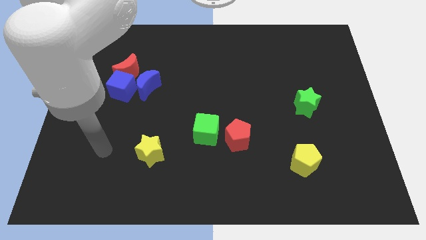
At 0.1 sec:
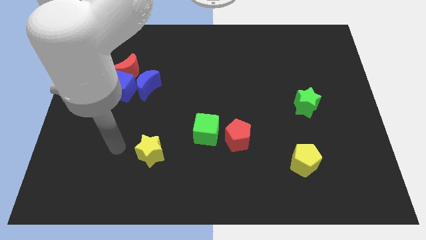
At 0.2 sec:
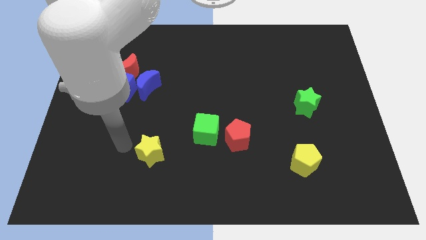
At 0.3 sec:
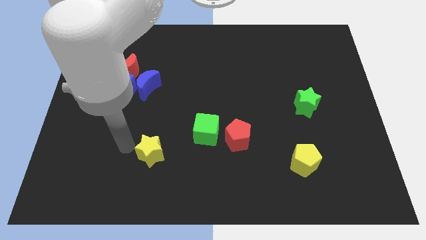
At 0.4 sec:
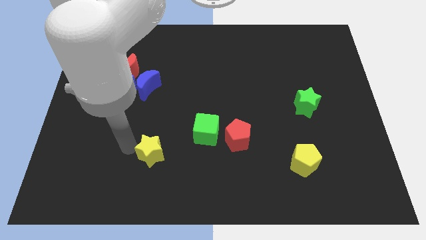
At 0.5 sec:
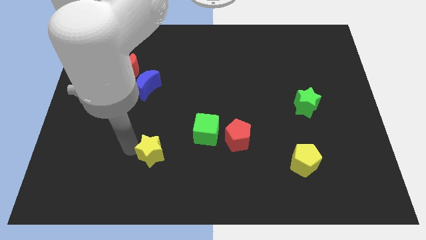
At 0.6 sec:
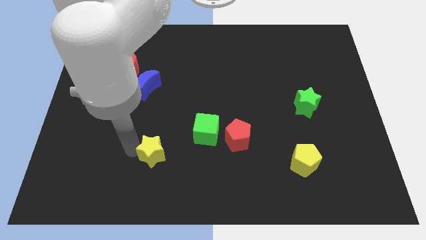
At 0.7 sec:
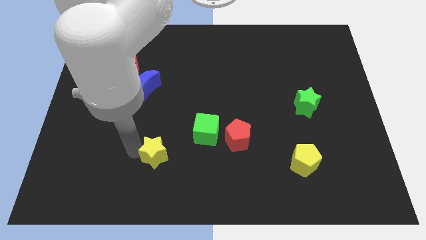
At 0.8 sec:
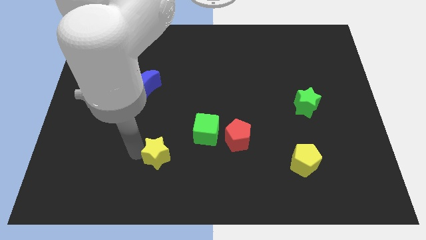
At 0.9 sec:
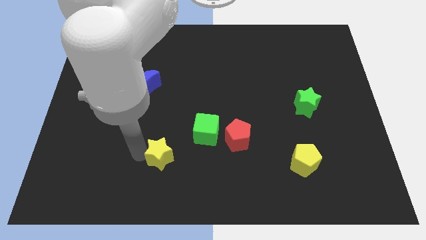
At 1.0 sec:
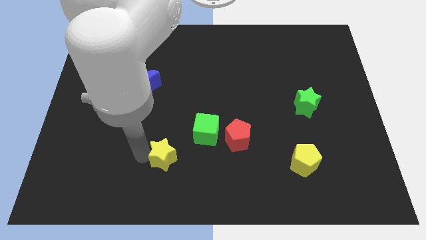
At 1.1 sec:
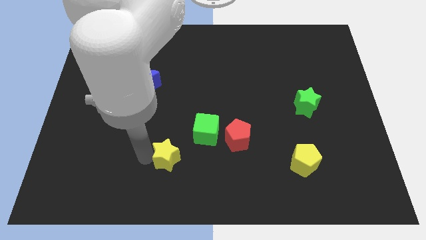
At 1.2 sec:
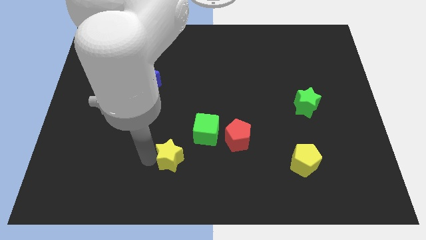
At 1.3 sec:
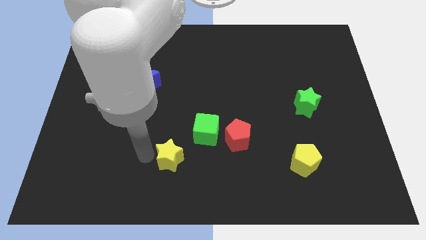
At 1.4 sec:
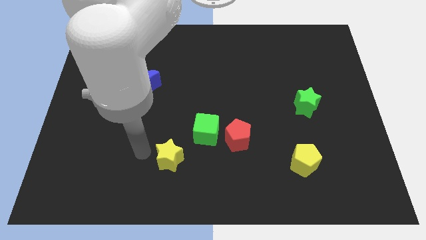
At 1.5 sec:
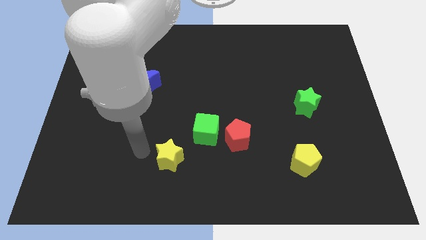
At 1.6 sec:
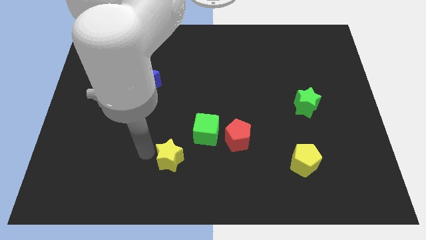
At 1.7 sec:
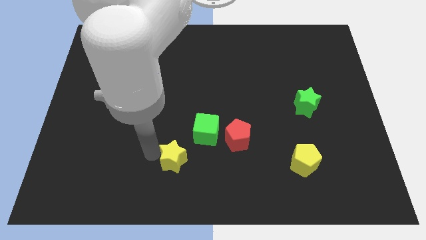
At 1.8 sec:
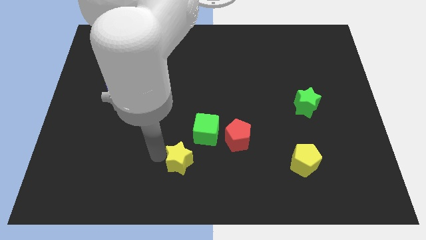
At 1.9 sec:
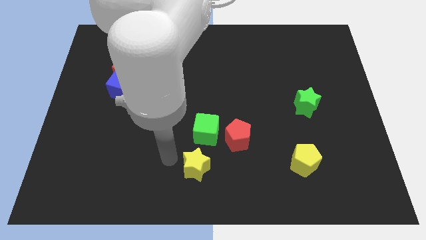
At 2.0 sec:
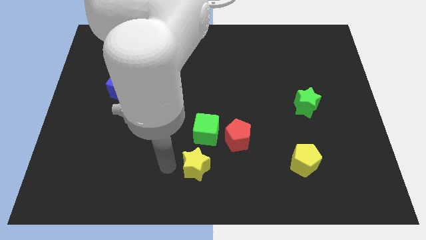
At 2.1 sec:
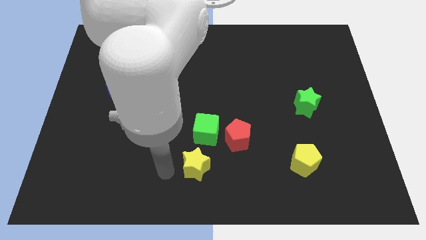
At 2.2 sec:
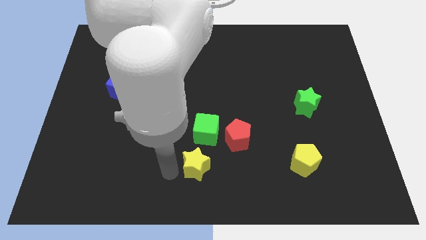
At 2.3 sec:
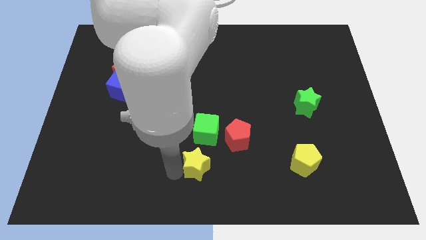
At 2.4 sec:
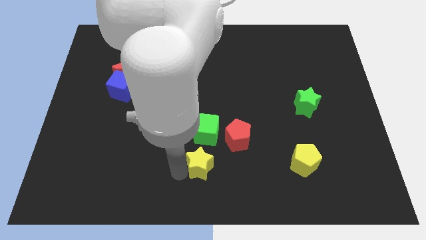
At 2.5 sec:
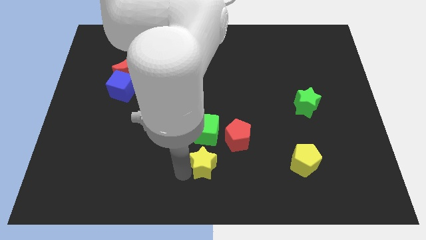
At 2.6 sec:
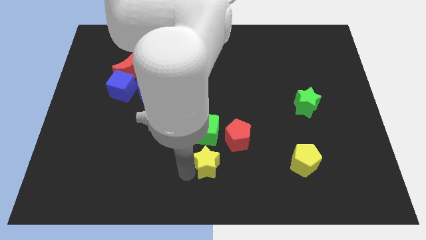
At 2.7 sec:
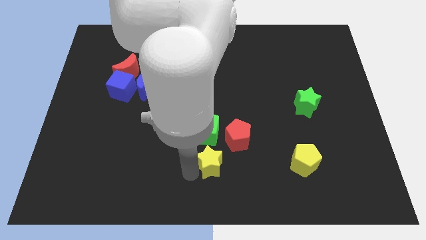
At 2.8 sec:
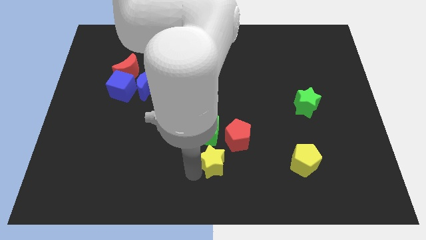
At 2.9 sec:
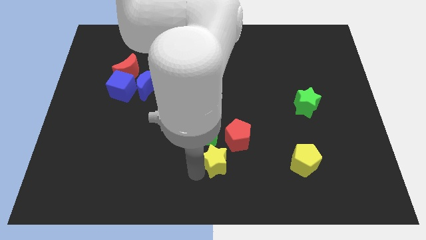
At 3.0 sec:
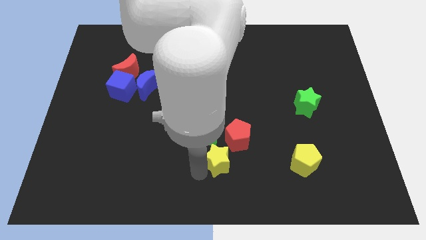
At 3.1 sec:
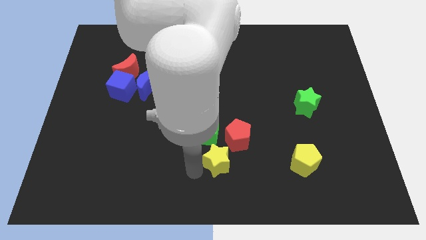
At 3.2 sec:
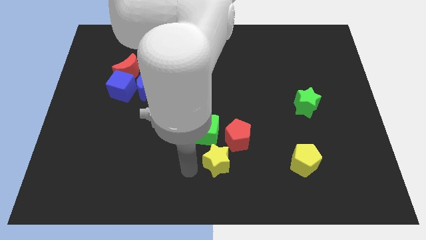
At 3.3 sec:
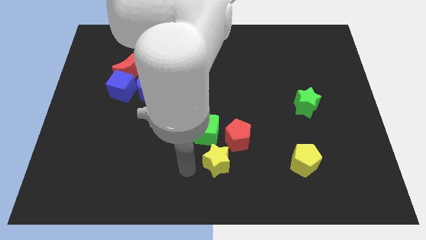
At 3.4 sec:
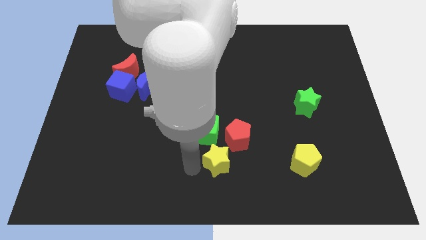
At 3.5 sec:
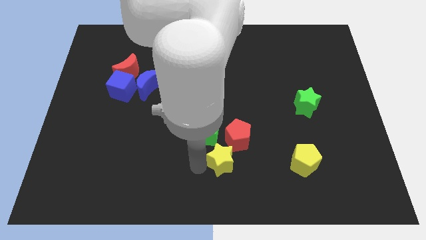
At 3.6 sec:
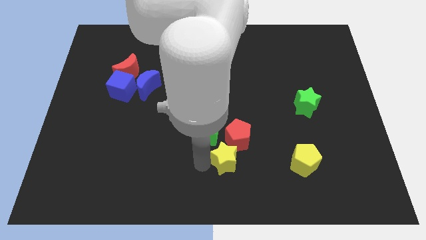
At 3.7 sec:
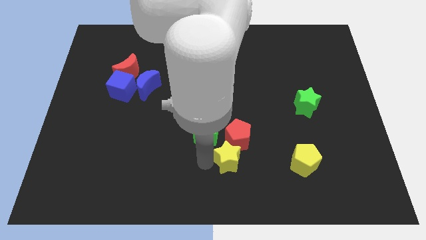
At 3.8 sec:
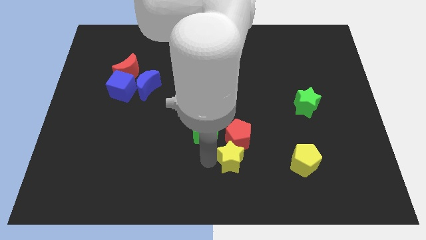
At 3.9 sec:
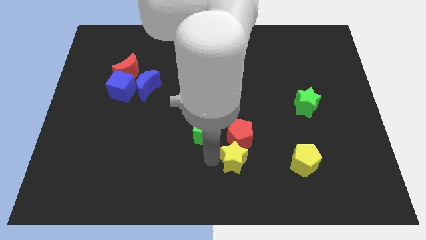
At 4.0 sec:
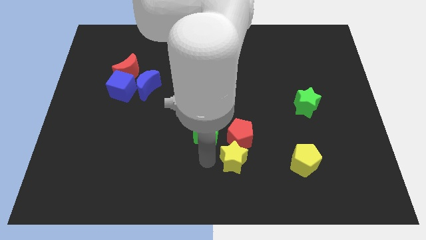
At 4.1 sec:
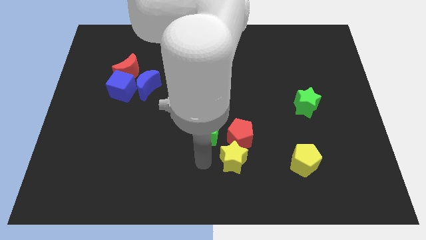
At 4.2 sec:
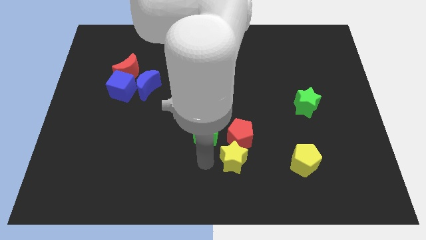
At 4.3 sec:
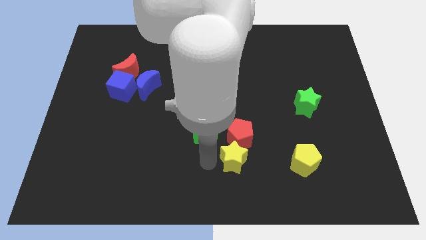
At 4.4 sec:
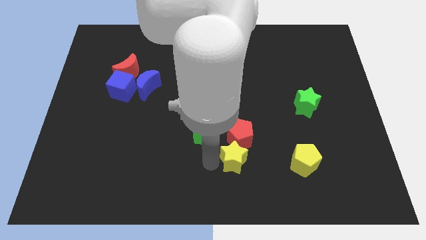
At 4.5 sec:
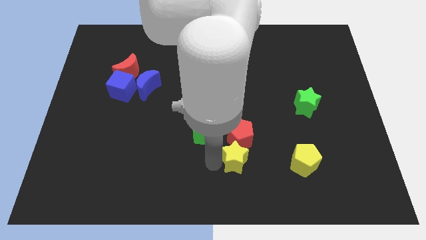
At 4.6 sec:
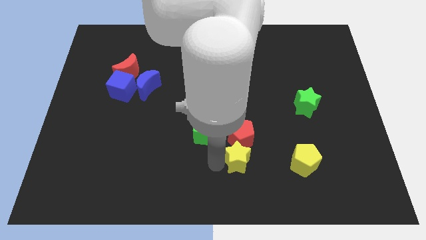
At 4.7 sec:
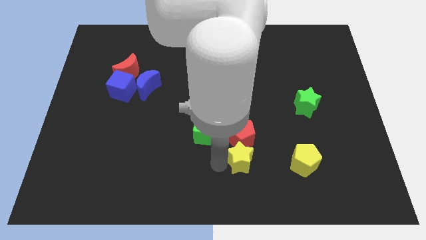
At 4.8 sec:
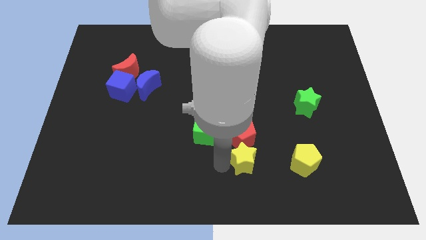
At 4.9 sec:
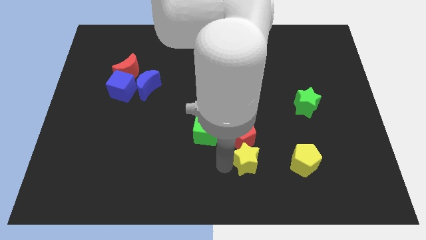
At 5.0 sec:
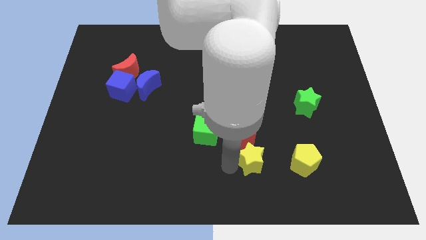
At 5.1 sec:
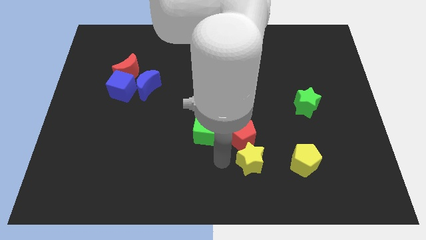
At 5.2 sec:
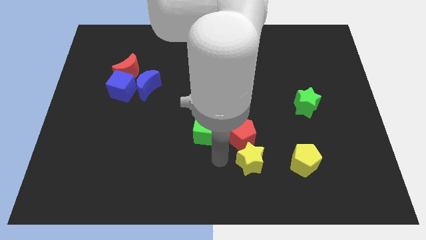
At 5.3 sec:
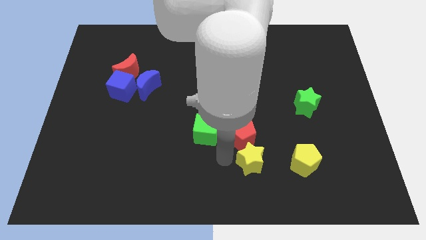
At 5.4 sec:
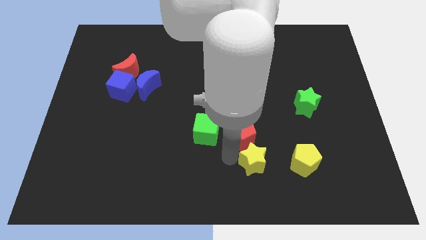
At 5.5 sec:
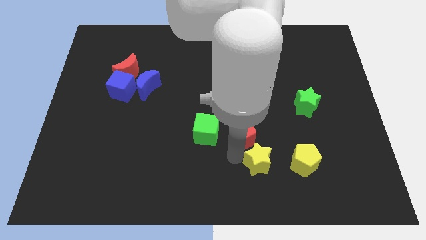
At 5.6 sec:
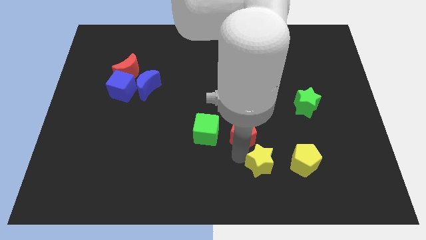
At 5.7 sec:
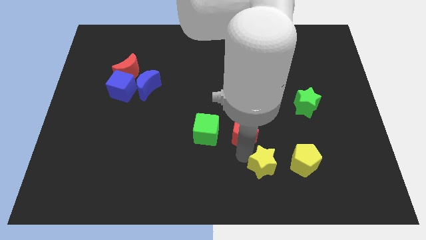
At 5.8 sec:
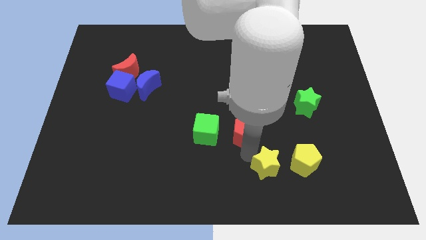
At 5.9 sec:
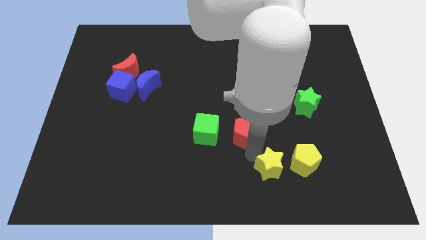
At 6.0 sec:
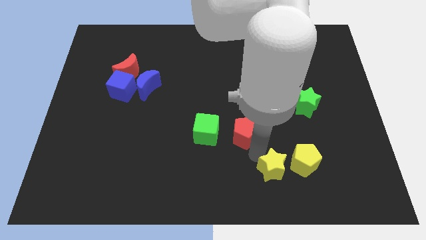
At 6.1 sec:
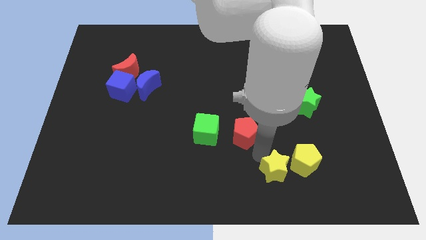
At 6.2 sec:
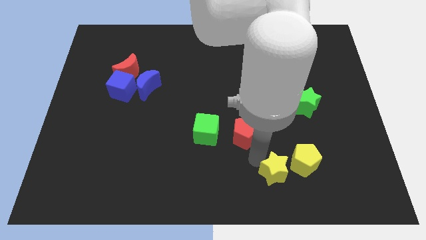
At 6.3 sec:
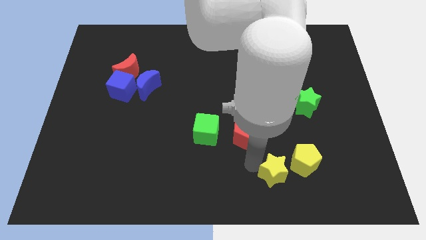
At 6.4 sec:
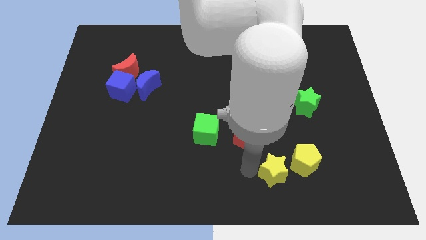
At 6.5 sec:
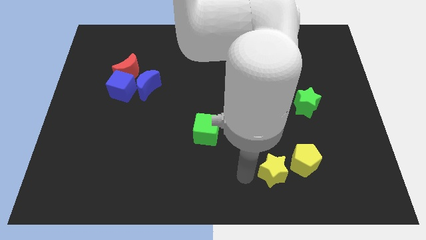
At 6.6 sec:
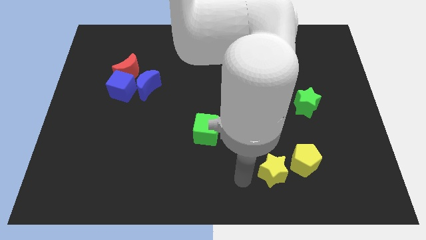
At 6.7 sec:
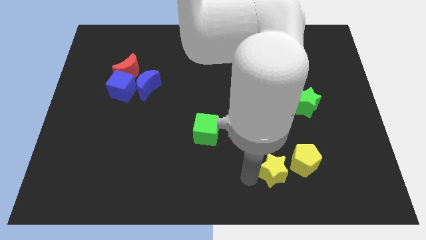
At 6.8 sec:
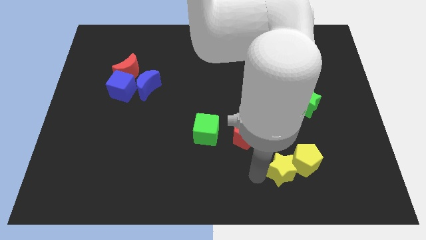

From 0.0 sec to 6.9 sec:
move the yellow star towards the yellow pentagon
